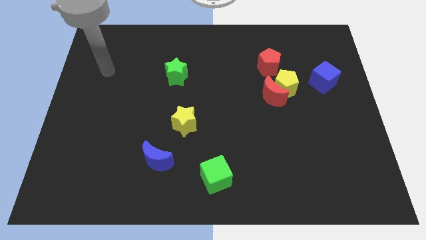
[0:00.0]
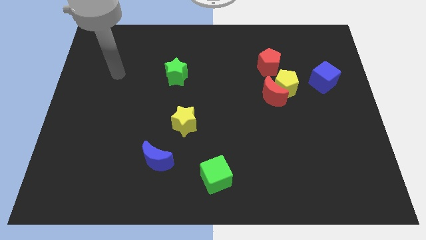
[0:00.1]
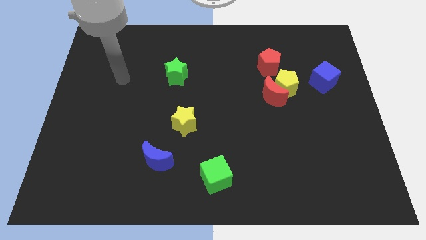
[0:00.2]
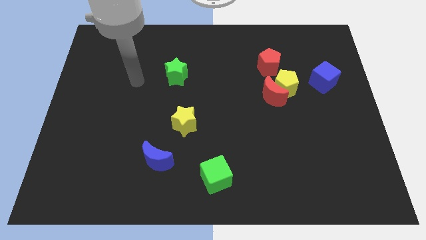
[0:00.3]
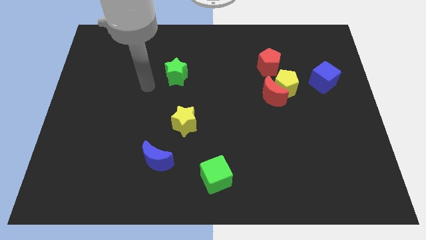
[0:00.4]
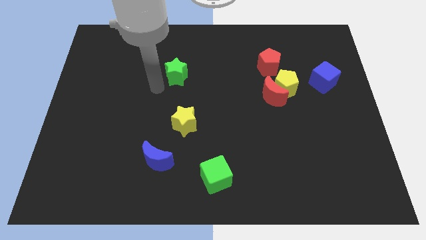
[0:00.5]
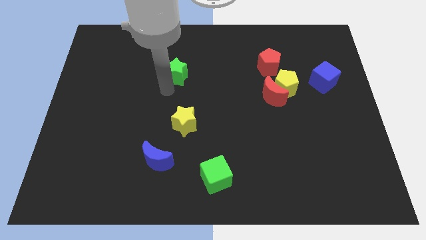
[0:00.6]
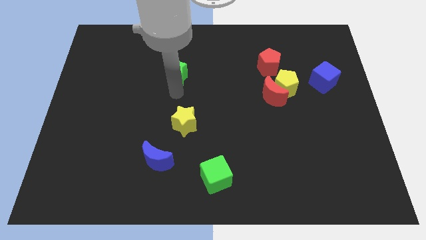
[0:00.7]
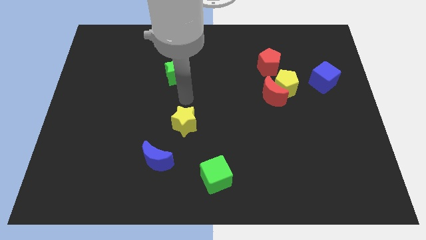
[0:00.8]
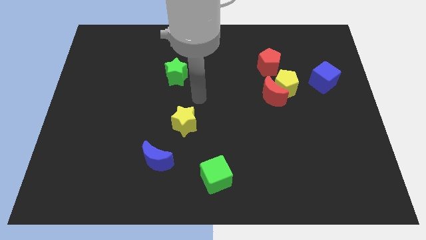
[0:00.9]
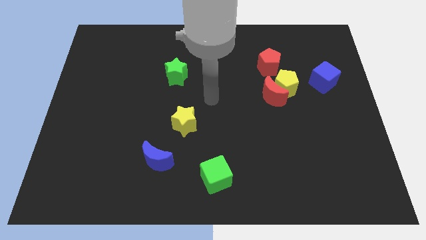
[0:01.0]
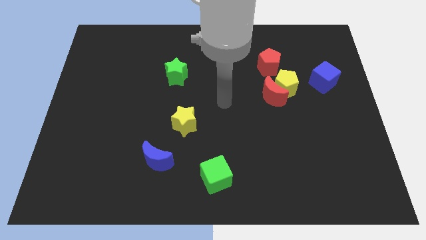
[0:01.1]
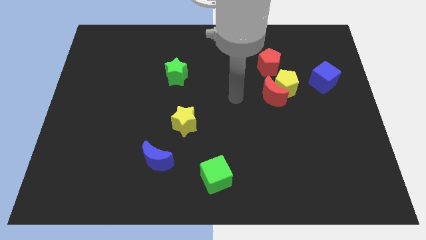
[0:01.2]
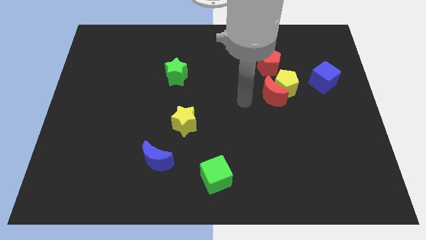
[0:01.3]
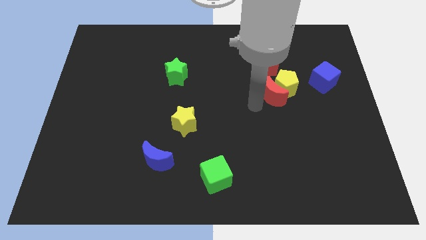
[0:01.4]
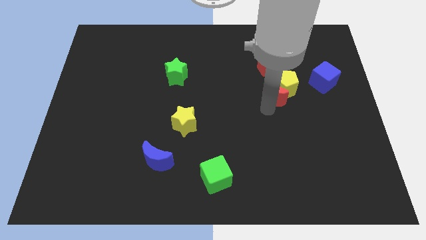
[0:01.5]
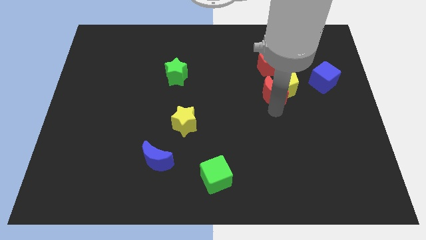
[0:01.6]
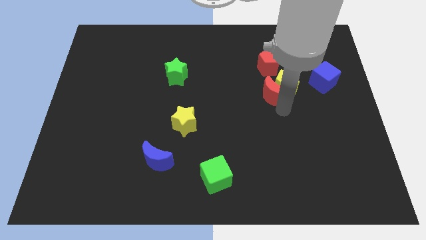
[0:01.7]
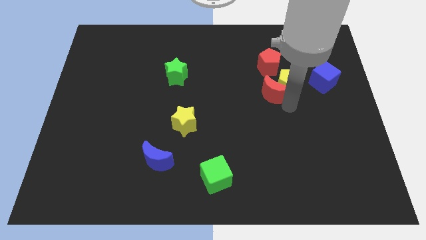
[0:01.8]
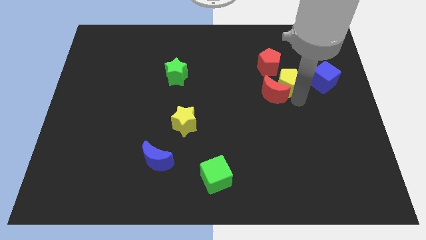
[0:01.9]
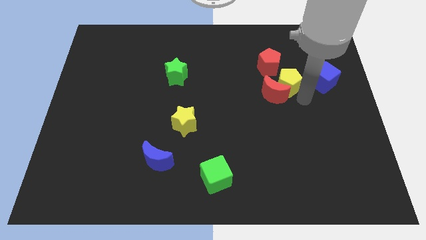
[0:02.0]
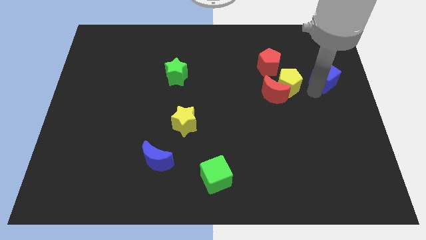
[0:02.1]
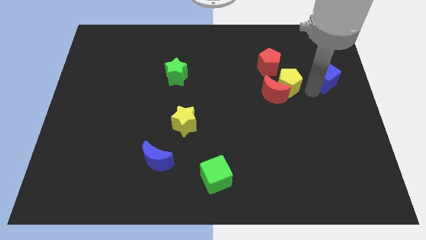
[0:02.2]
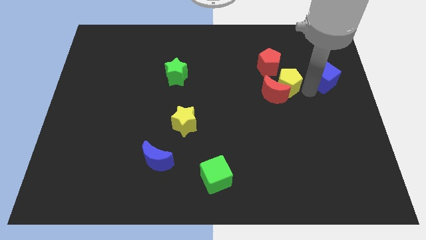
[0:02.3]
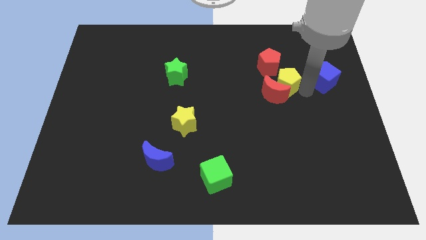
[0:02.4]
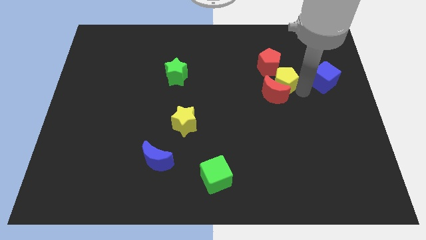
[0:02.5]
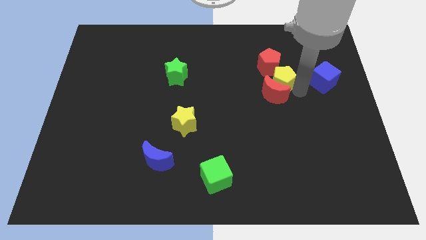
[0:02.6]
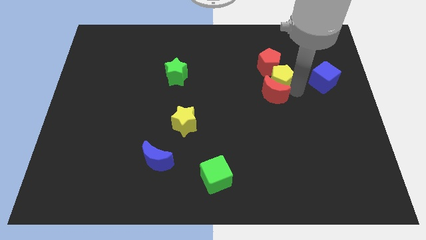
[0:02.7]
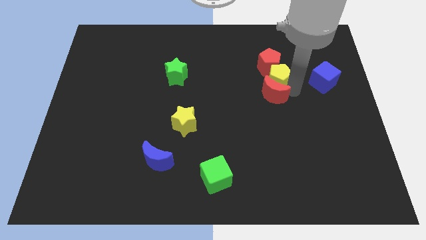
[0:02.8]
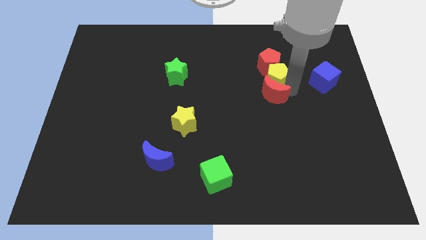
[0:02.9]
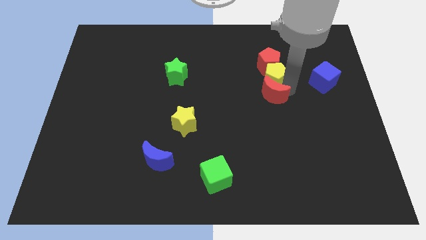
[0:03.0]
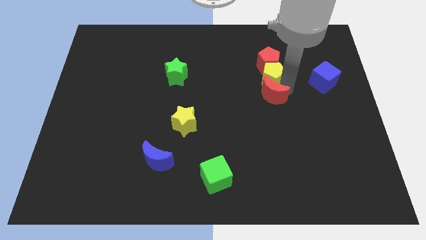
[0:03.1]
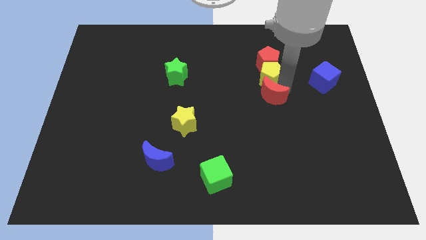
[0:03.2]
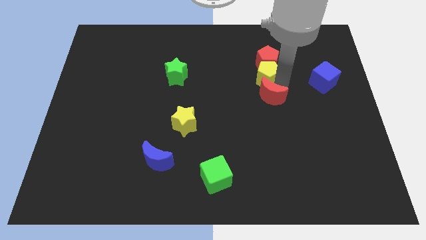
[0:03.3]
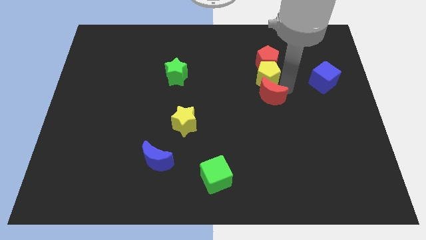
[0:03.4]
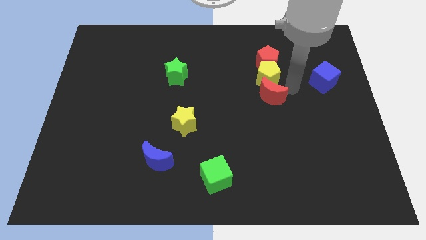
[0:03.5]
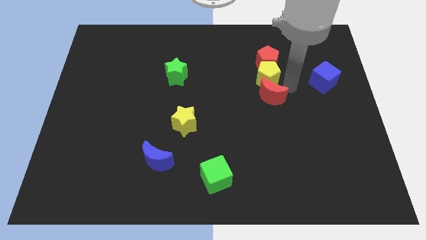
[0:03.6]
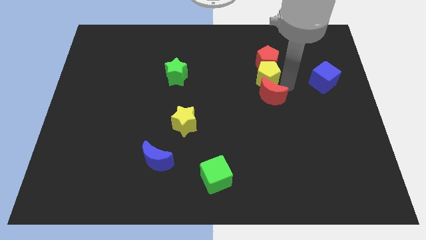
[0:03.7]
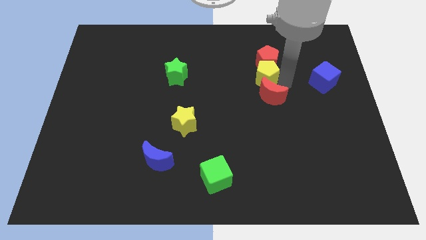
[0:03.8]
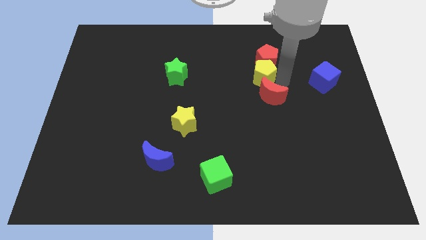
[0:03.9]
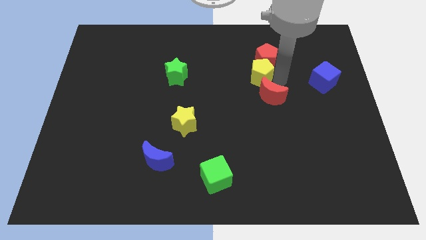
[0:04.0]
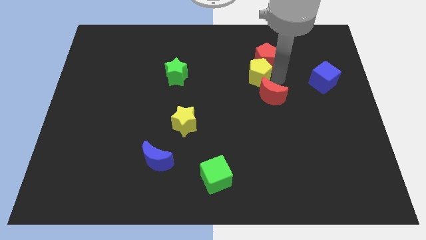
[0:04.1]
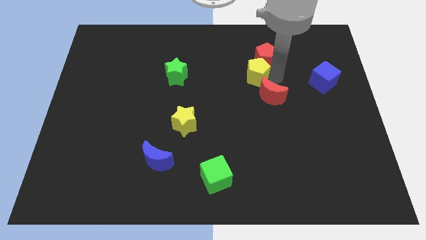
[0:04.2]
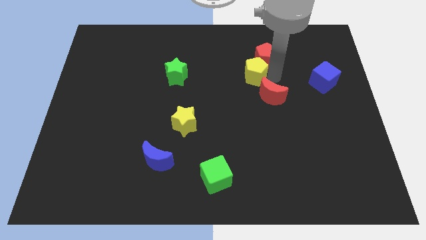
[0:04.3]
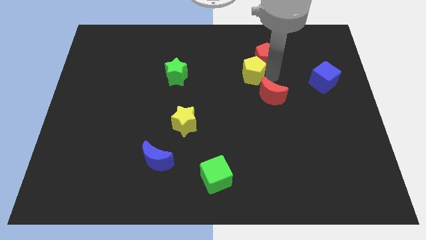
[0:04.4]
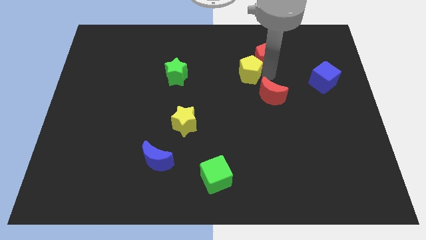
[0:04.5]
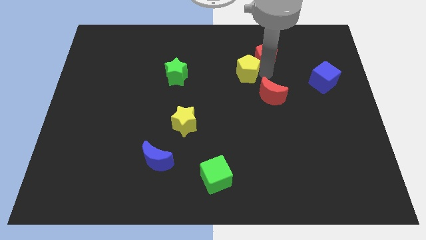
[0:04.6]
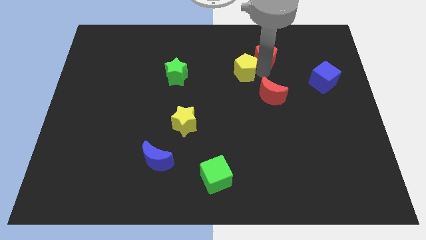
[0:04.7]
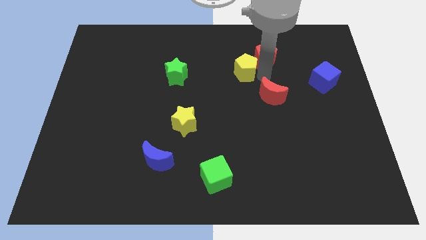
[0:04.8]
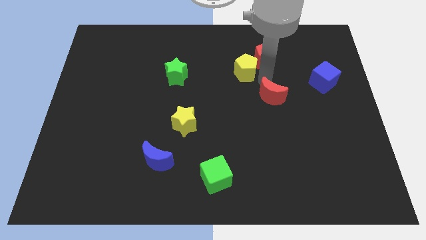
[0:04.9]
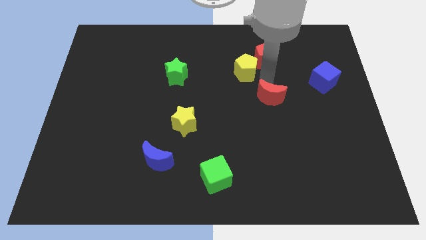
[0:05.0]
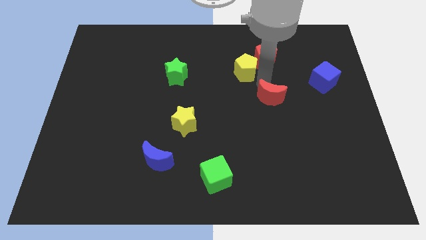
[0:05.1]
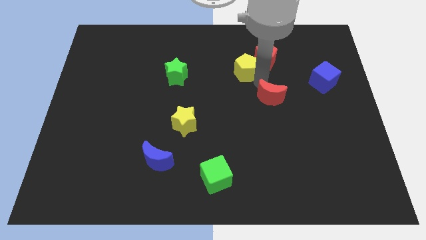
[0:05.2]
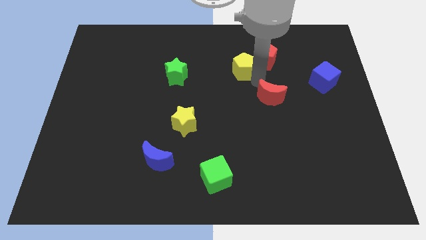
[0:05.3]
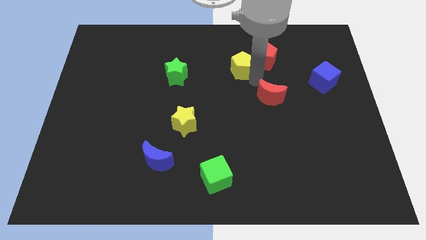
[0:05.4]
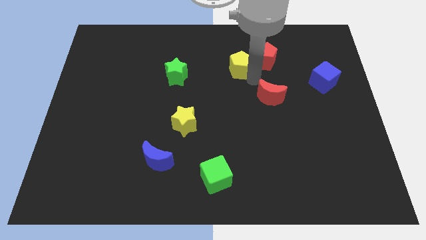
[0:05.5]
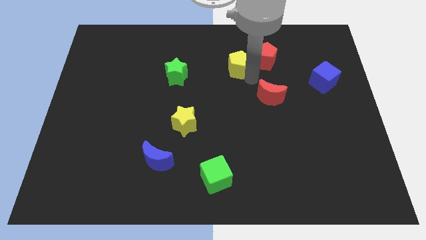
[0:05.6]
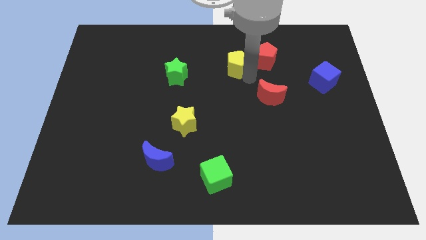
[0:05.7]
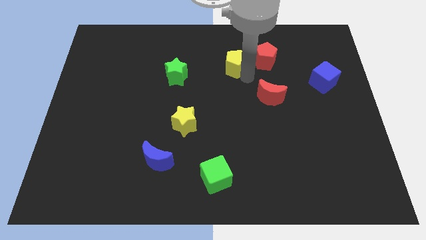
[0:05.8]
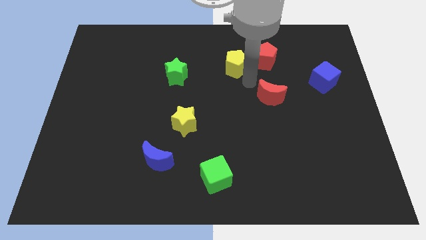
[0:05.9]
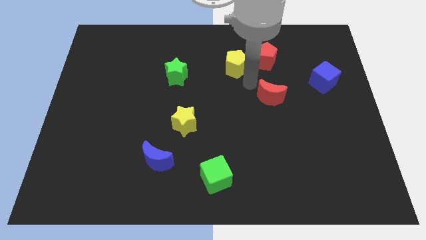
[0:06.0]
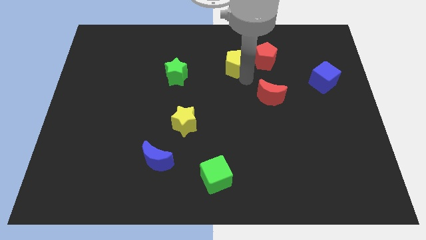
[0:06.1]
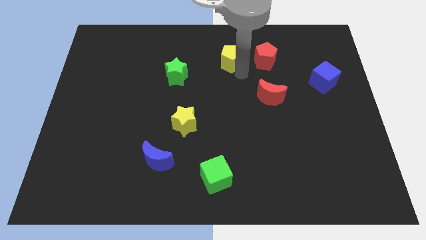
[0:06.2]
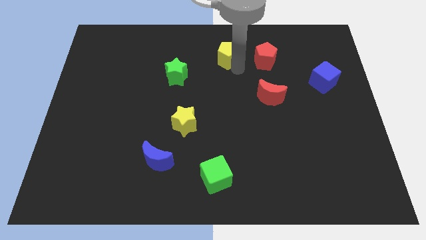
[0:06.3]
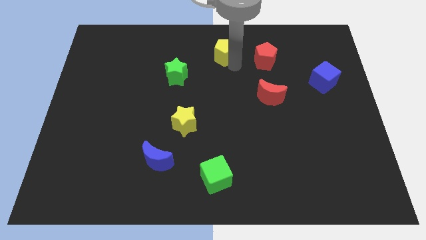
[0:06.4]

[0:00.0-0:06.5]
move the yellow pentagon to the top side
